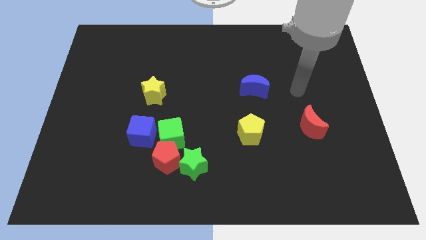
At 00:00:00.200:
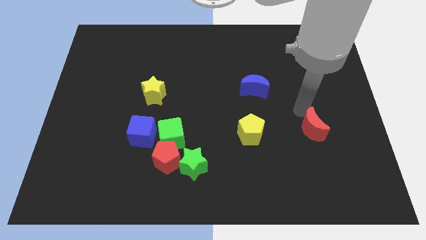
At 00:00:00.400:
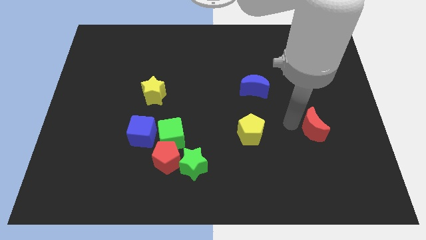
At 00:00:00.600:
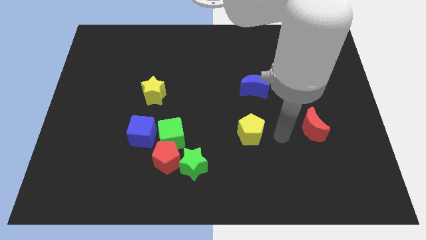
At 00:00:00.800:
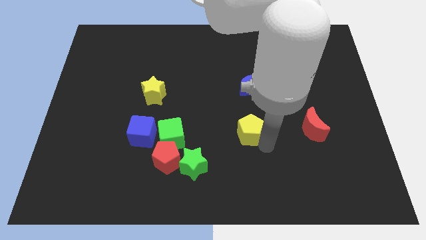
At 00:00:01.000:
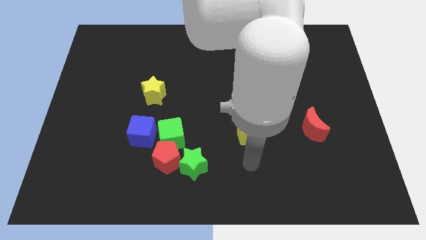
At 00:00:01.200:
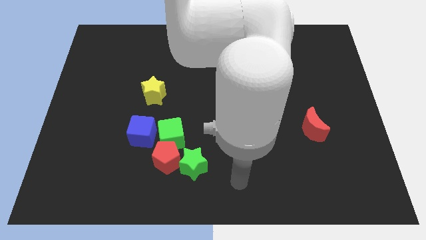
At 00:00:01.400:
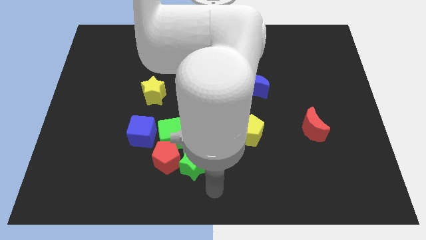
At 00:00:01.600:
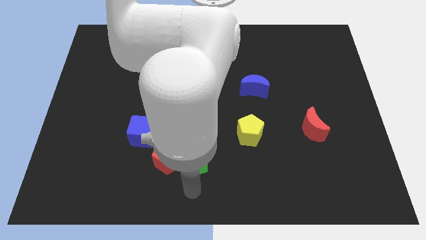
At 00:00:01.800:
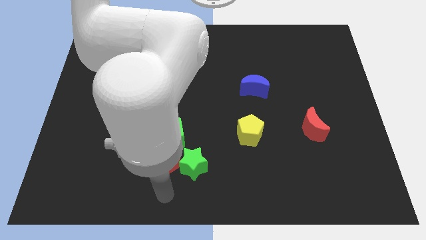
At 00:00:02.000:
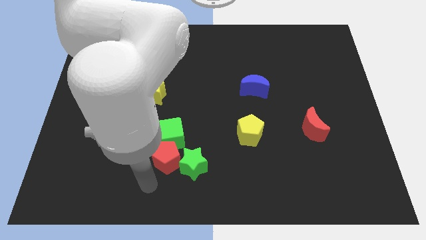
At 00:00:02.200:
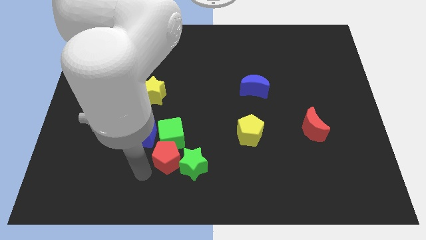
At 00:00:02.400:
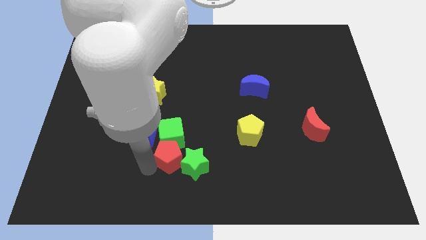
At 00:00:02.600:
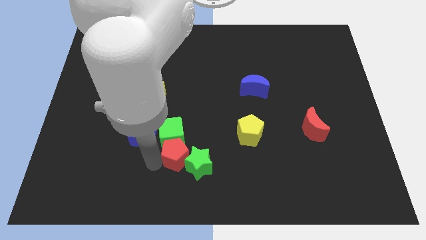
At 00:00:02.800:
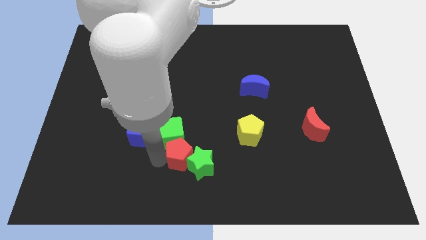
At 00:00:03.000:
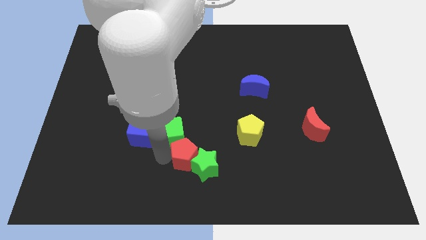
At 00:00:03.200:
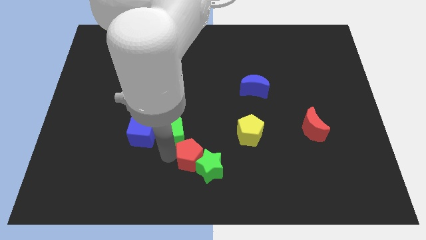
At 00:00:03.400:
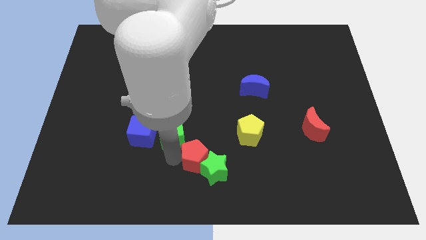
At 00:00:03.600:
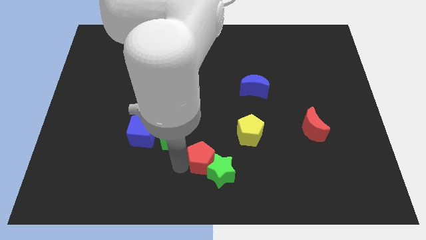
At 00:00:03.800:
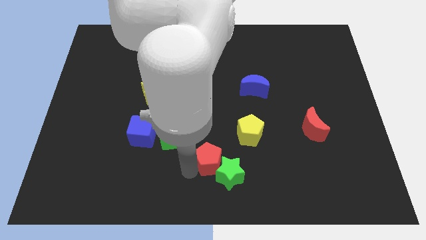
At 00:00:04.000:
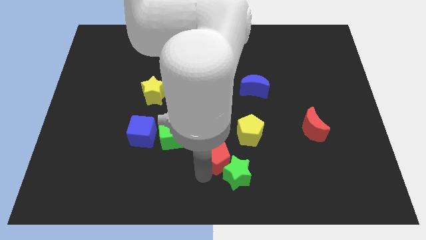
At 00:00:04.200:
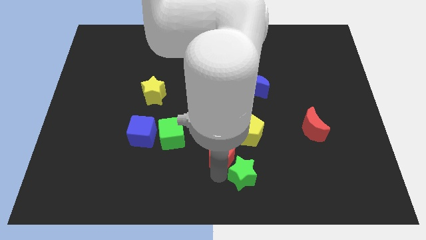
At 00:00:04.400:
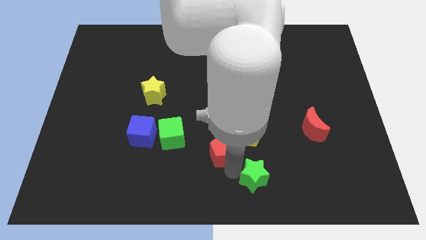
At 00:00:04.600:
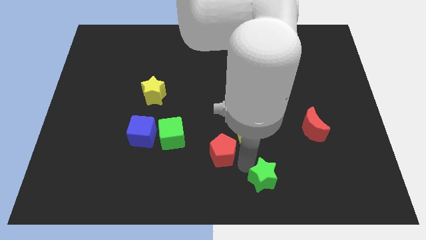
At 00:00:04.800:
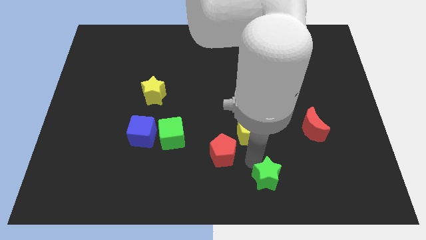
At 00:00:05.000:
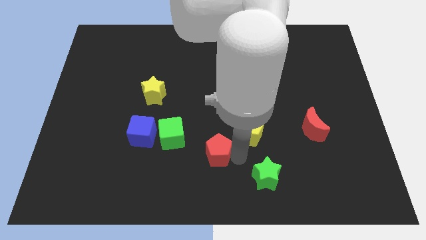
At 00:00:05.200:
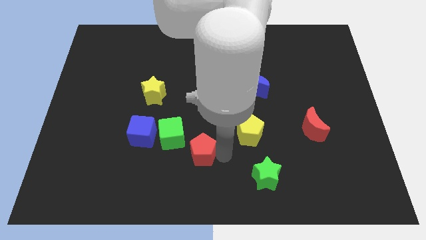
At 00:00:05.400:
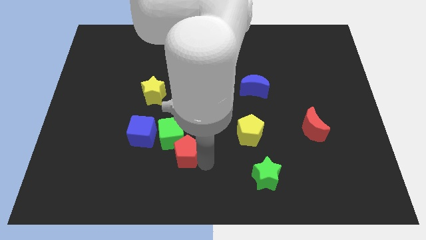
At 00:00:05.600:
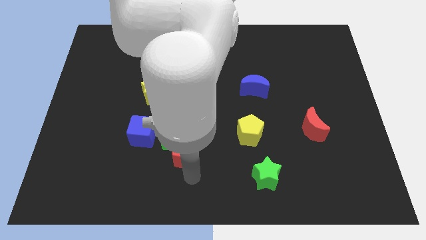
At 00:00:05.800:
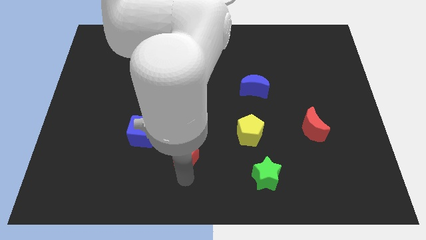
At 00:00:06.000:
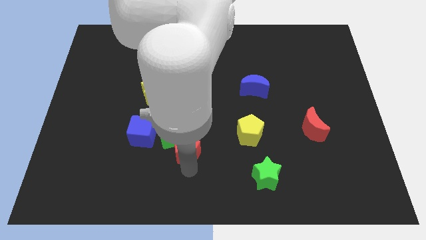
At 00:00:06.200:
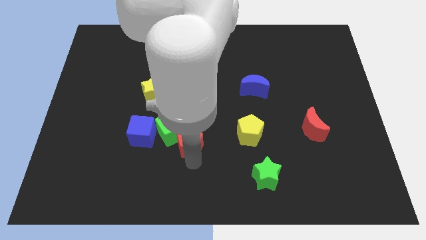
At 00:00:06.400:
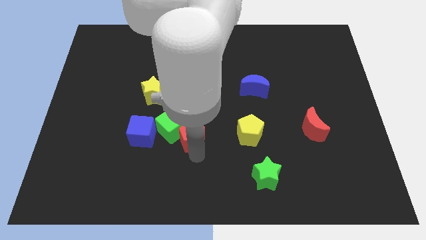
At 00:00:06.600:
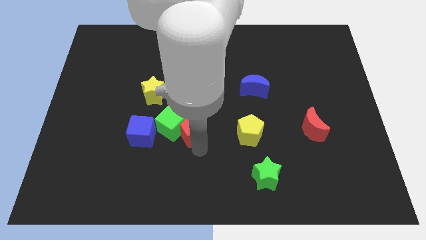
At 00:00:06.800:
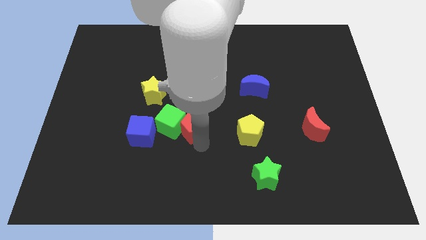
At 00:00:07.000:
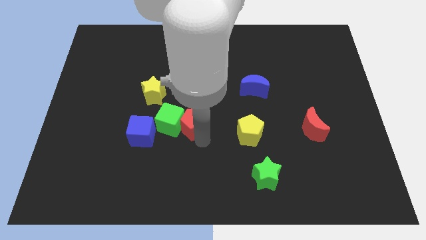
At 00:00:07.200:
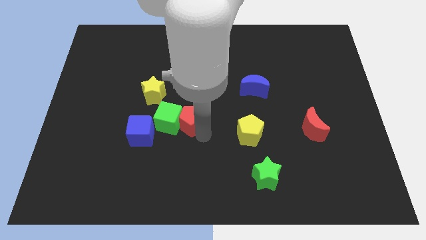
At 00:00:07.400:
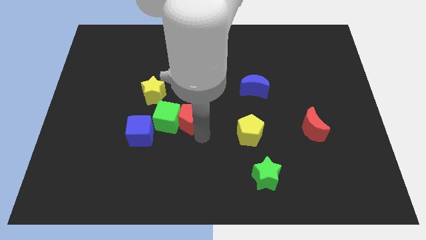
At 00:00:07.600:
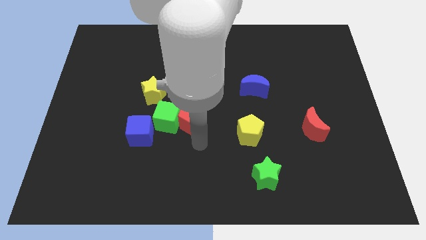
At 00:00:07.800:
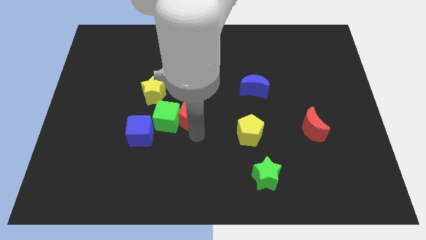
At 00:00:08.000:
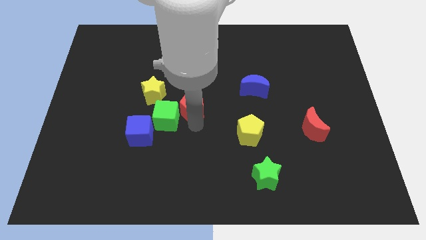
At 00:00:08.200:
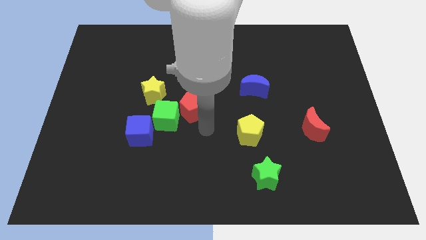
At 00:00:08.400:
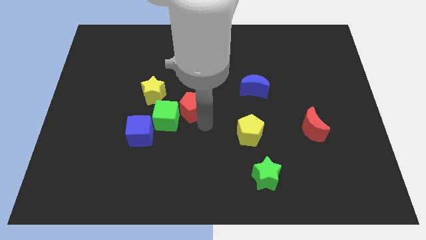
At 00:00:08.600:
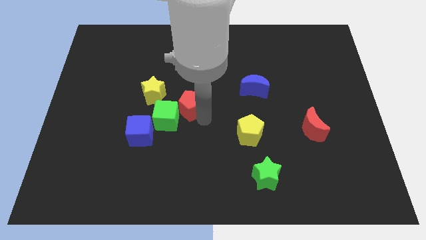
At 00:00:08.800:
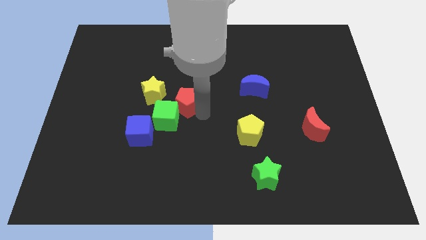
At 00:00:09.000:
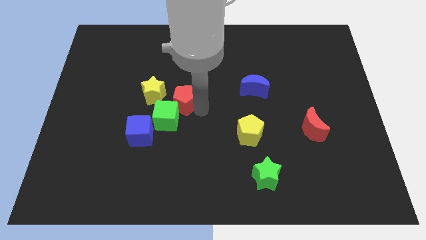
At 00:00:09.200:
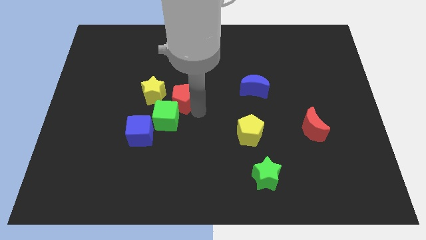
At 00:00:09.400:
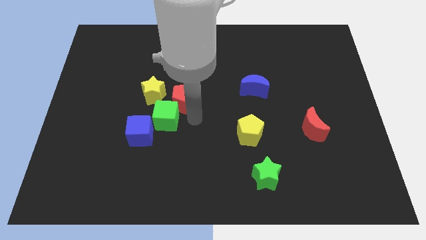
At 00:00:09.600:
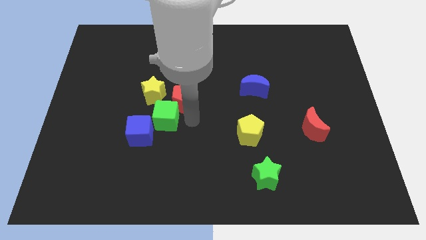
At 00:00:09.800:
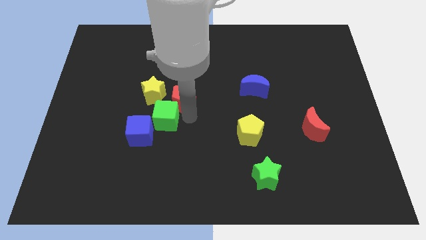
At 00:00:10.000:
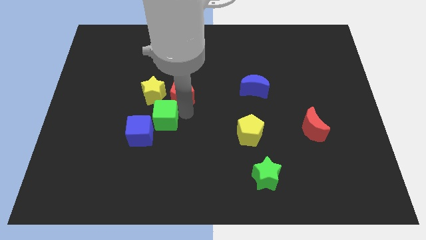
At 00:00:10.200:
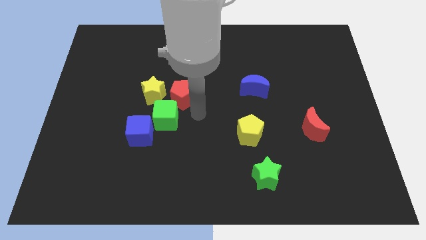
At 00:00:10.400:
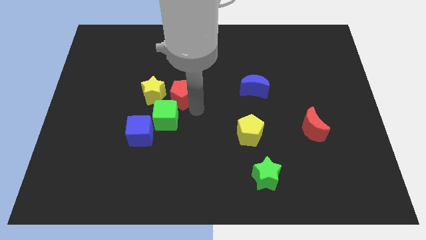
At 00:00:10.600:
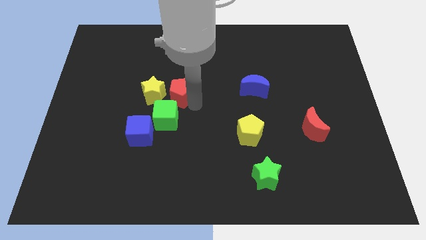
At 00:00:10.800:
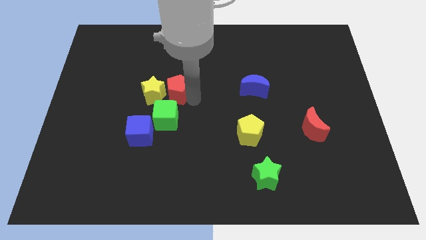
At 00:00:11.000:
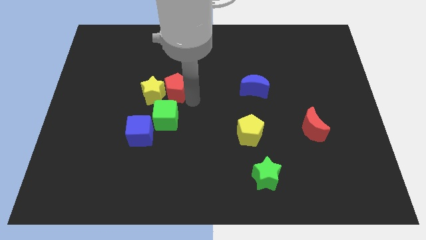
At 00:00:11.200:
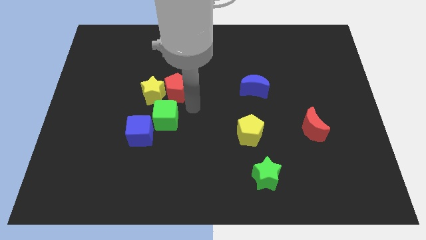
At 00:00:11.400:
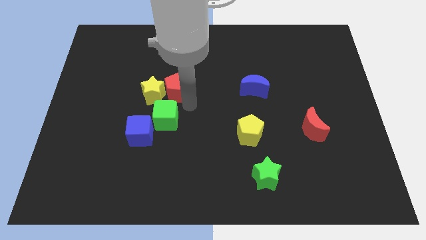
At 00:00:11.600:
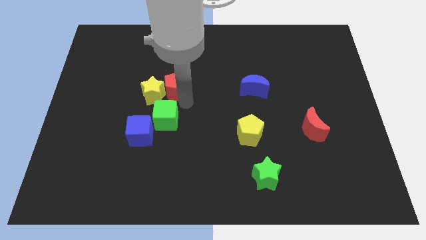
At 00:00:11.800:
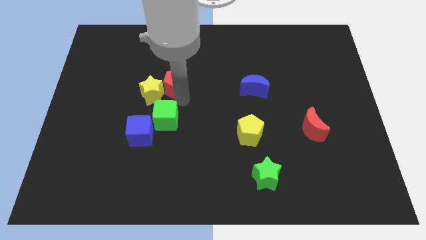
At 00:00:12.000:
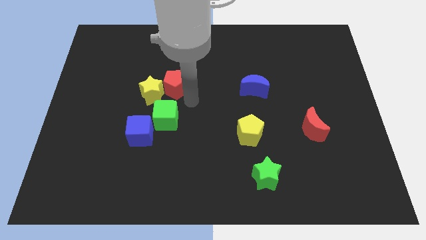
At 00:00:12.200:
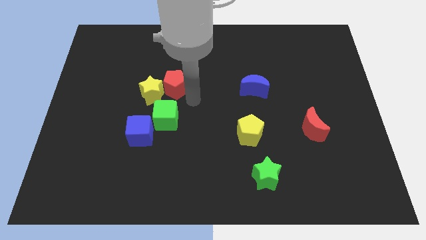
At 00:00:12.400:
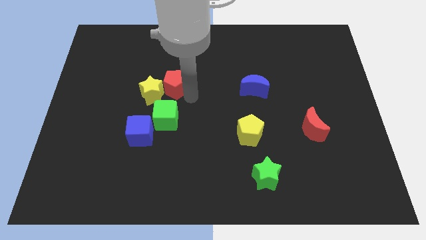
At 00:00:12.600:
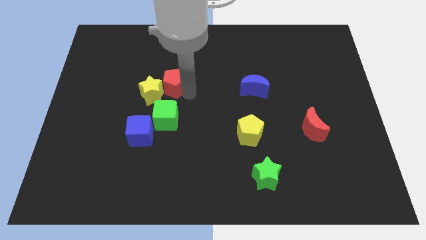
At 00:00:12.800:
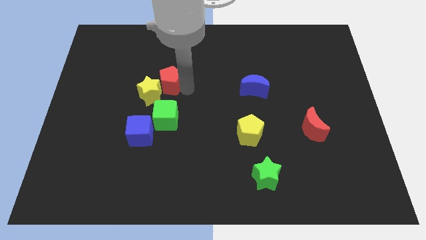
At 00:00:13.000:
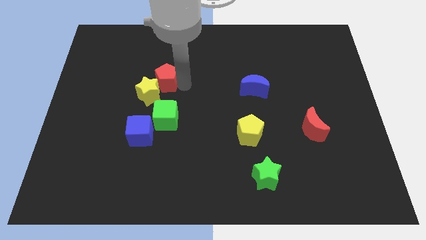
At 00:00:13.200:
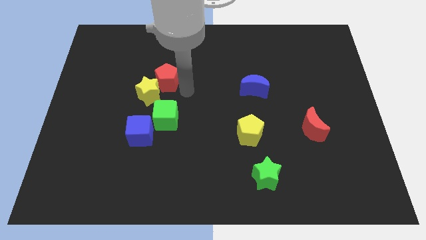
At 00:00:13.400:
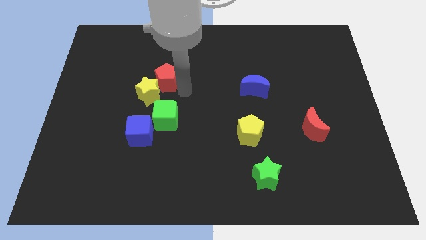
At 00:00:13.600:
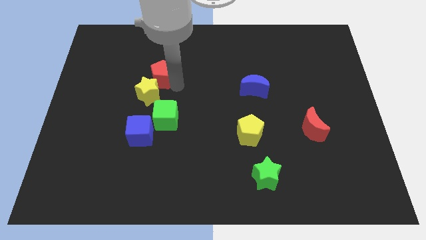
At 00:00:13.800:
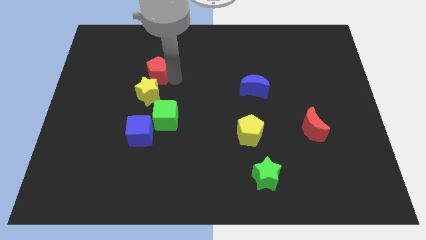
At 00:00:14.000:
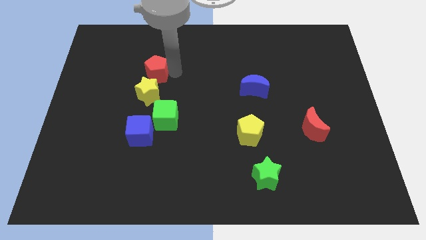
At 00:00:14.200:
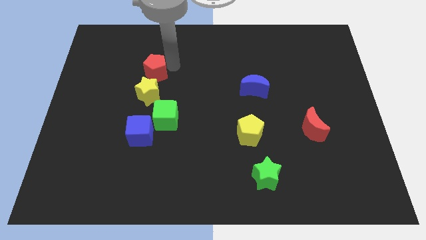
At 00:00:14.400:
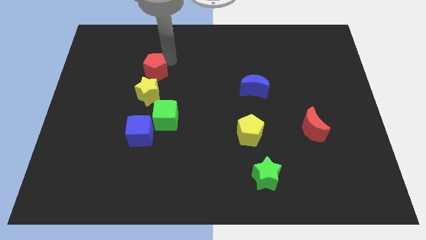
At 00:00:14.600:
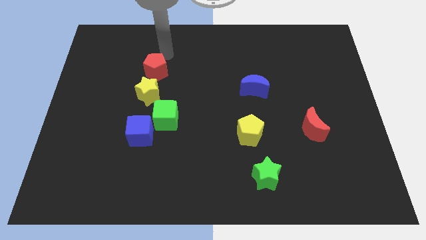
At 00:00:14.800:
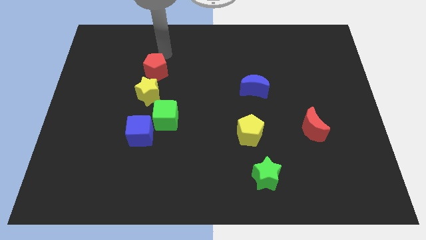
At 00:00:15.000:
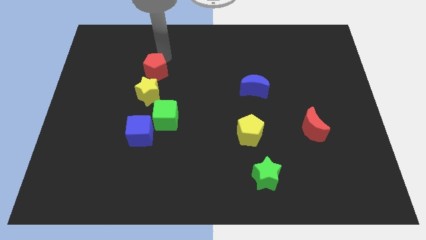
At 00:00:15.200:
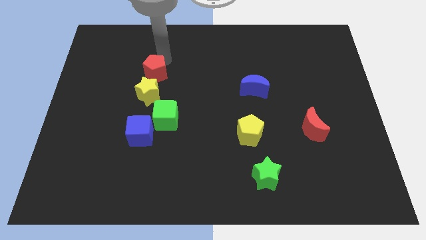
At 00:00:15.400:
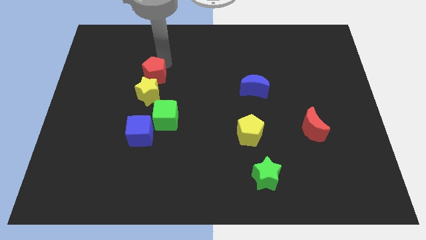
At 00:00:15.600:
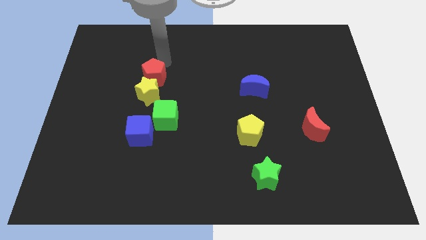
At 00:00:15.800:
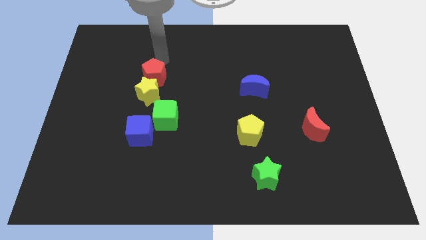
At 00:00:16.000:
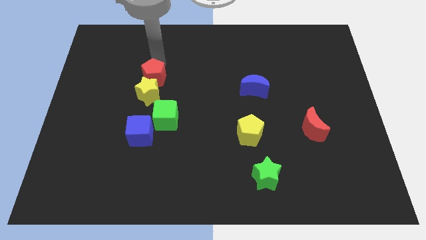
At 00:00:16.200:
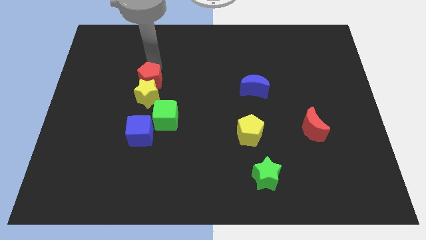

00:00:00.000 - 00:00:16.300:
put the red pentagon to the top side of the blue cube
